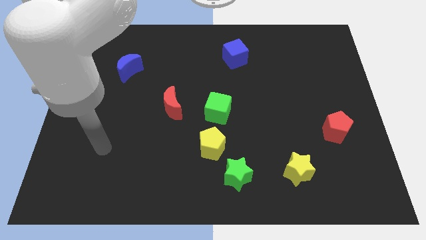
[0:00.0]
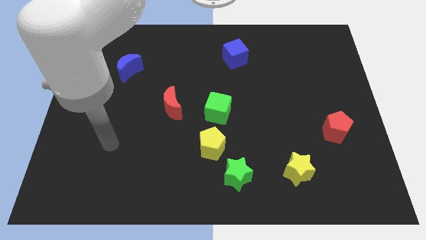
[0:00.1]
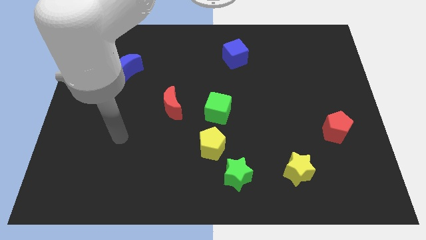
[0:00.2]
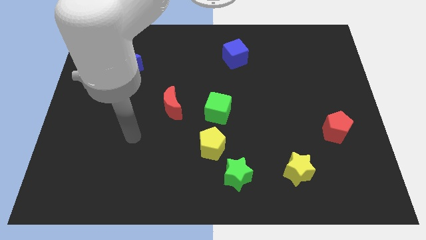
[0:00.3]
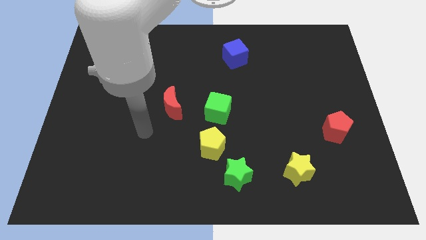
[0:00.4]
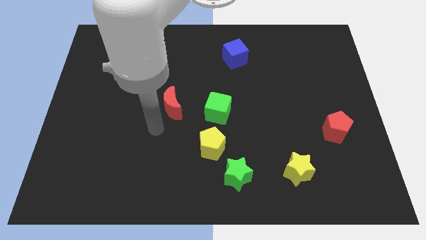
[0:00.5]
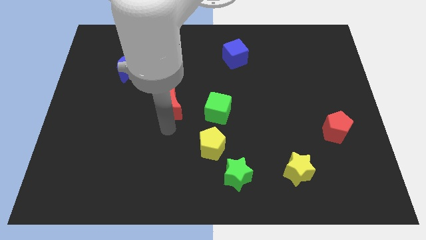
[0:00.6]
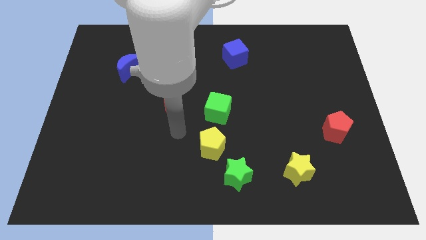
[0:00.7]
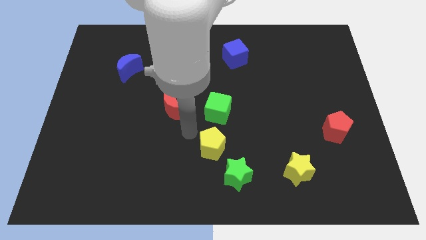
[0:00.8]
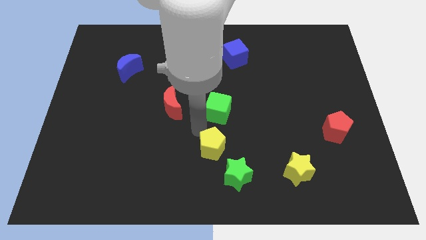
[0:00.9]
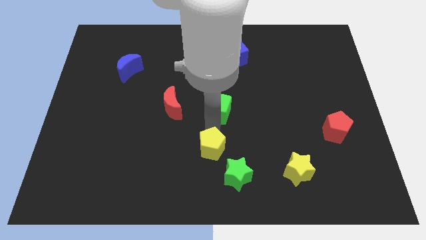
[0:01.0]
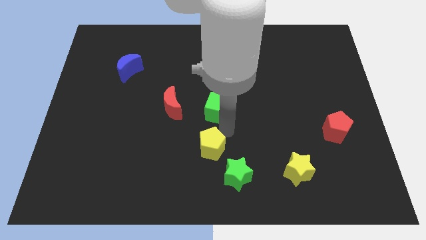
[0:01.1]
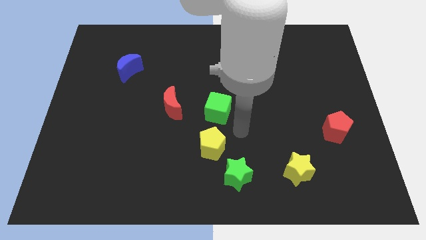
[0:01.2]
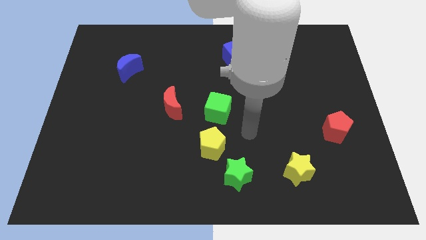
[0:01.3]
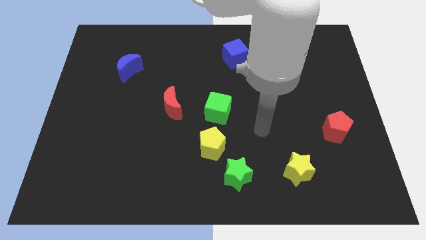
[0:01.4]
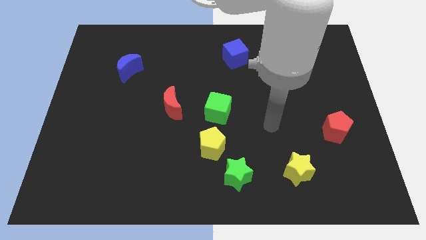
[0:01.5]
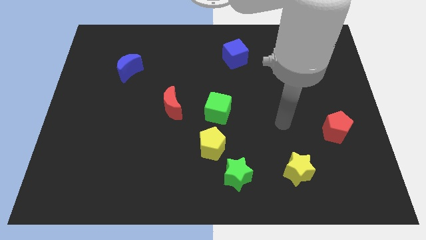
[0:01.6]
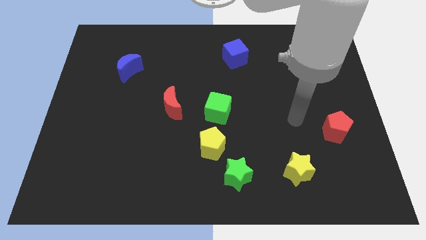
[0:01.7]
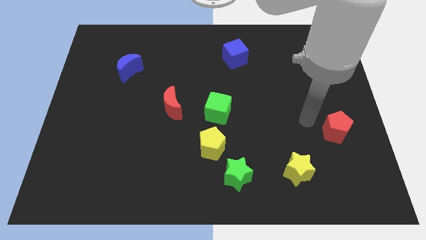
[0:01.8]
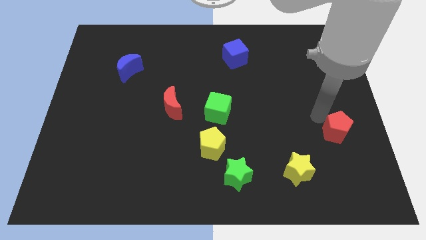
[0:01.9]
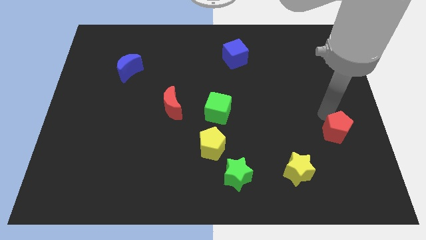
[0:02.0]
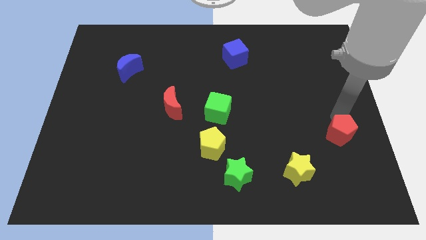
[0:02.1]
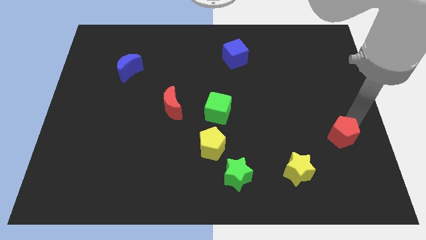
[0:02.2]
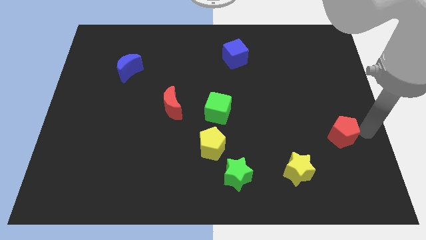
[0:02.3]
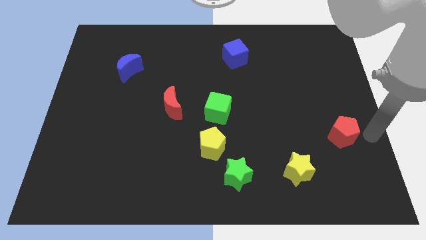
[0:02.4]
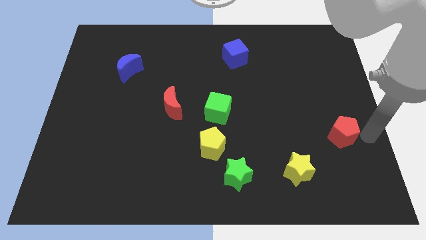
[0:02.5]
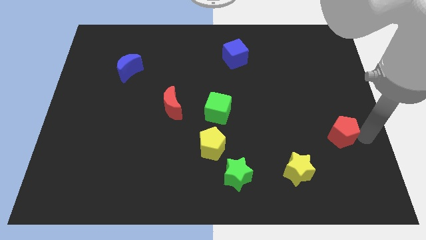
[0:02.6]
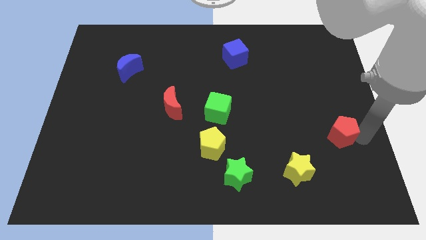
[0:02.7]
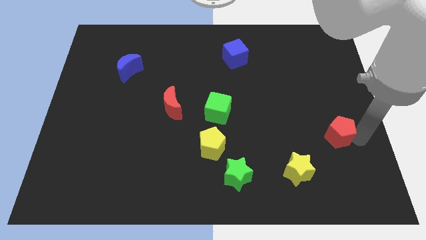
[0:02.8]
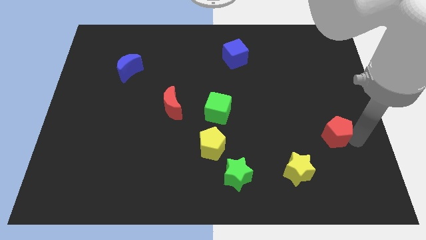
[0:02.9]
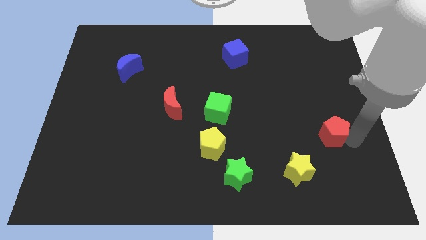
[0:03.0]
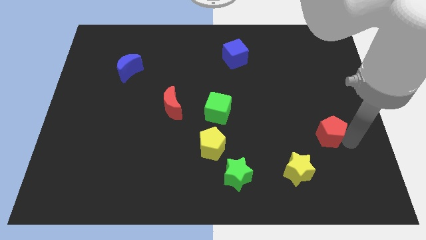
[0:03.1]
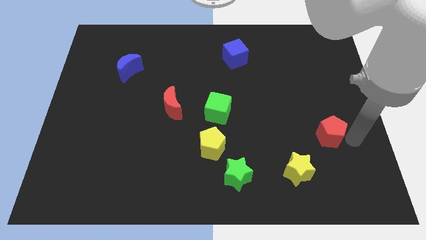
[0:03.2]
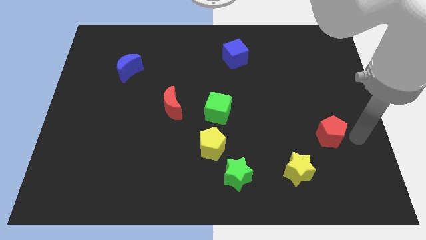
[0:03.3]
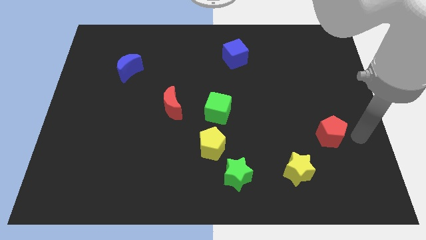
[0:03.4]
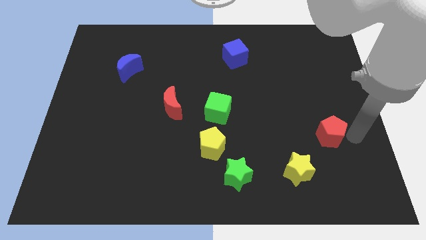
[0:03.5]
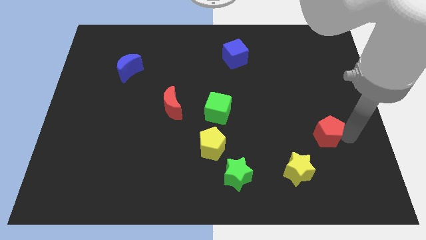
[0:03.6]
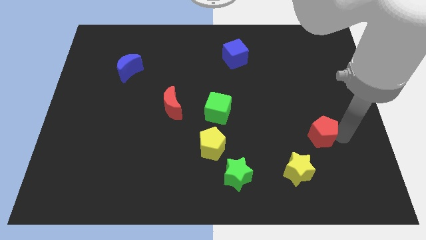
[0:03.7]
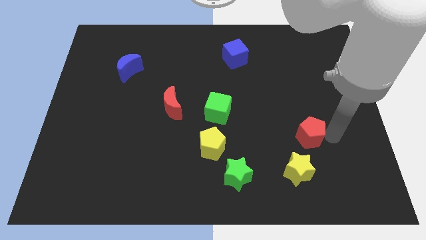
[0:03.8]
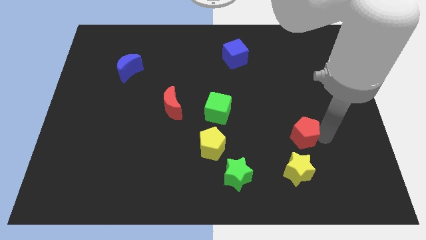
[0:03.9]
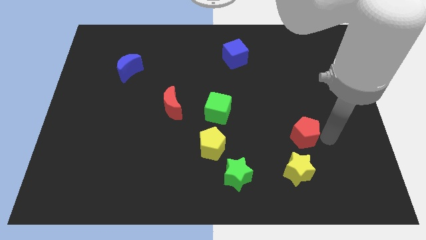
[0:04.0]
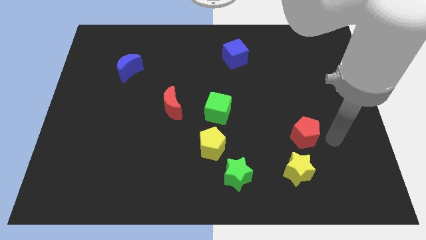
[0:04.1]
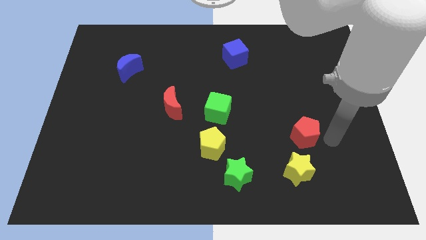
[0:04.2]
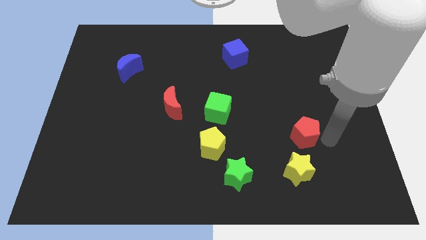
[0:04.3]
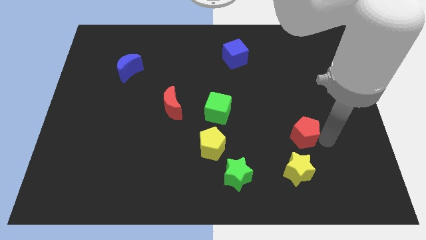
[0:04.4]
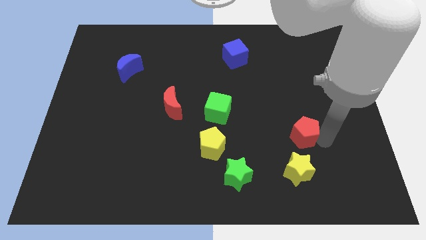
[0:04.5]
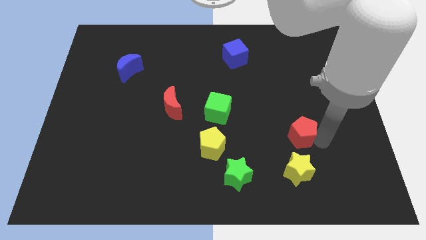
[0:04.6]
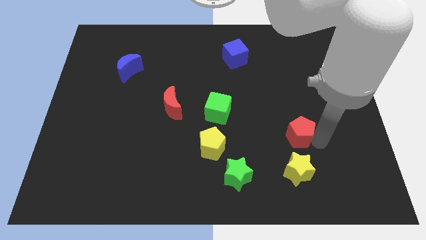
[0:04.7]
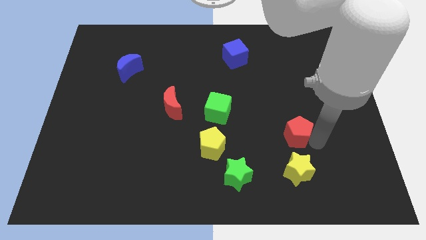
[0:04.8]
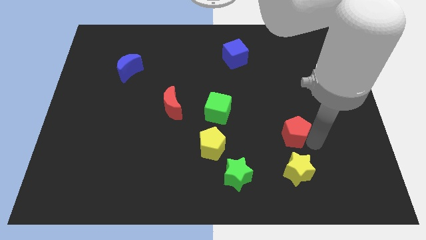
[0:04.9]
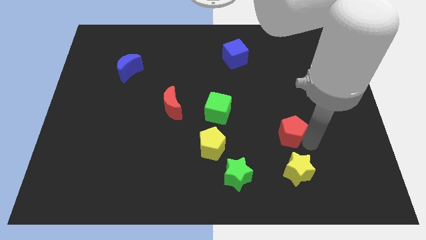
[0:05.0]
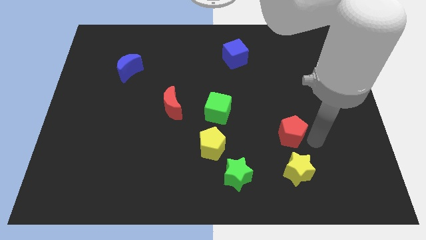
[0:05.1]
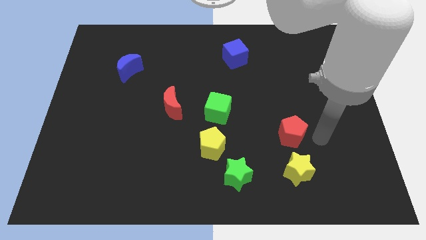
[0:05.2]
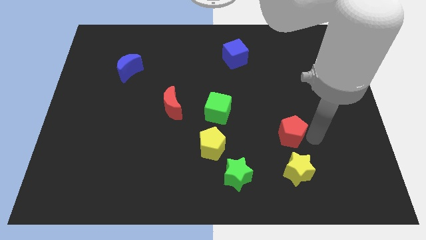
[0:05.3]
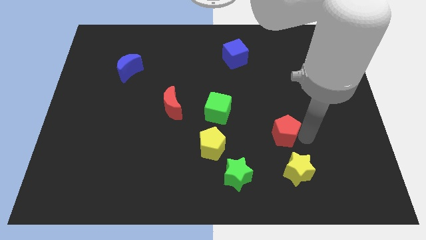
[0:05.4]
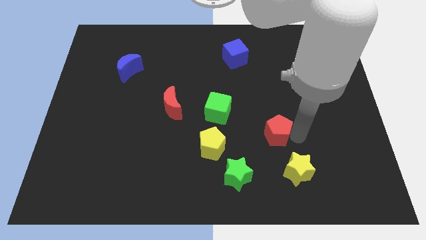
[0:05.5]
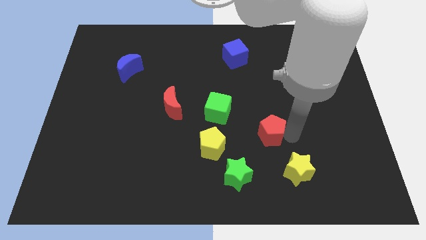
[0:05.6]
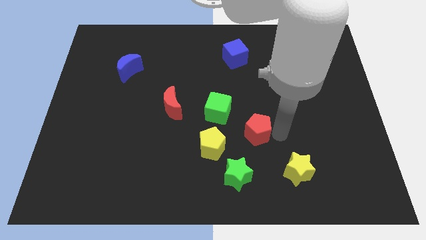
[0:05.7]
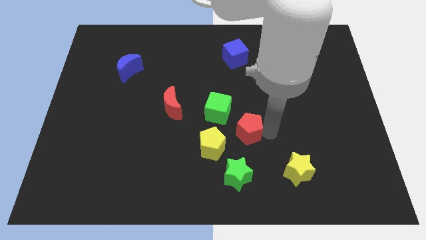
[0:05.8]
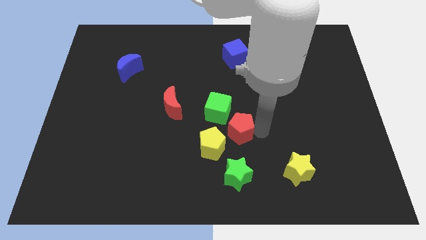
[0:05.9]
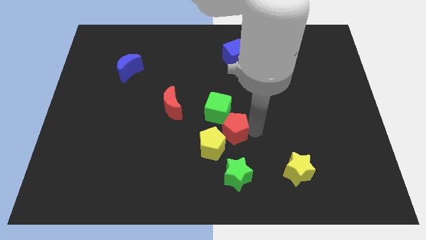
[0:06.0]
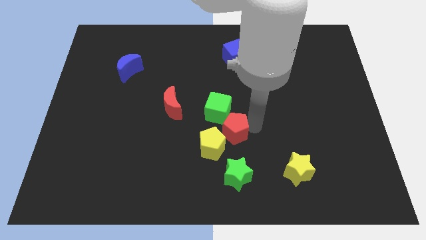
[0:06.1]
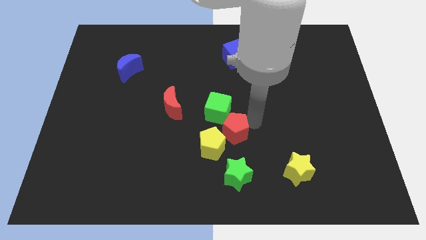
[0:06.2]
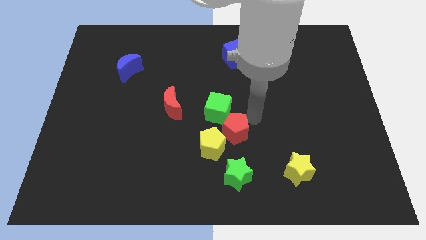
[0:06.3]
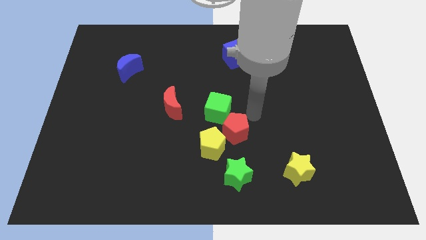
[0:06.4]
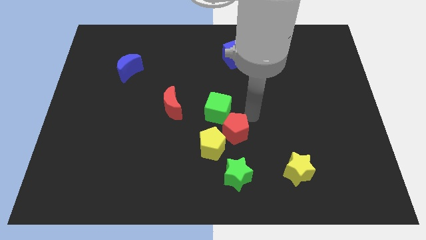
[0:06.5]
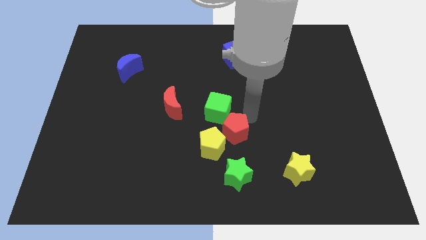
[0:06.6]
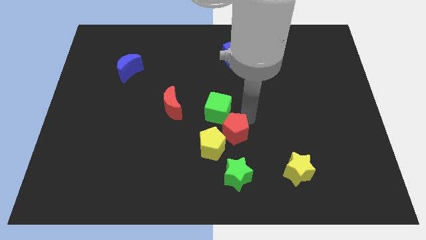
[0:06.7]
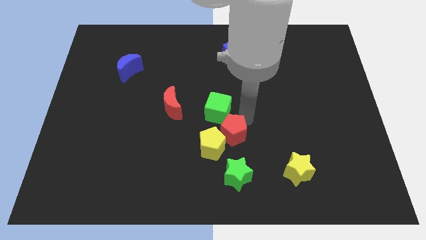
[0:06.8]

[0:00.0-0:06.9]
push the red pentagon towards the yellow pentagon

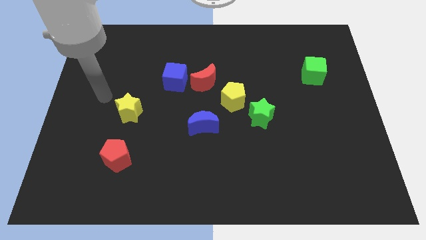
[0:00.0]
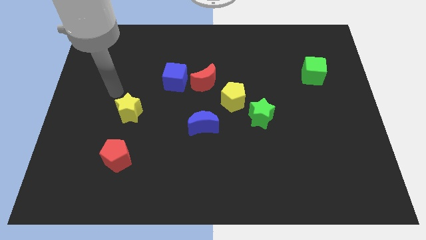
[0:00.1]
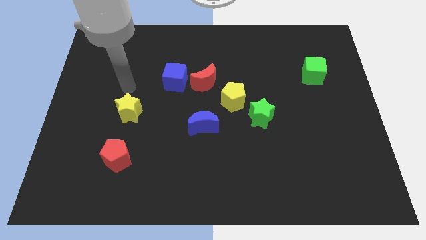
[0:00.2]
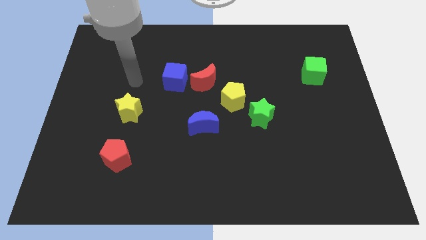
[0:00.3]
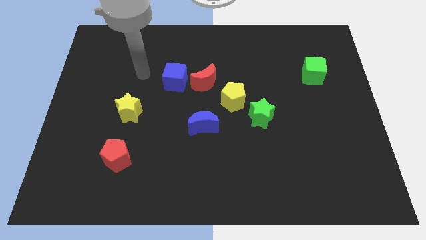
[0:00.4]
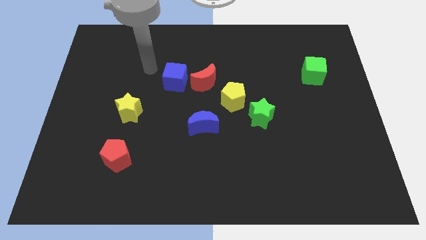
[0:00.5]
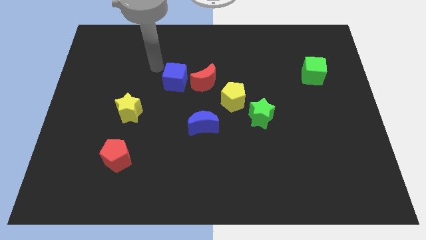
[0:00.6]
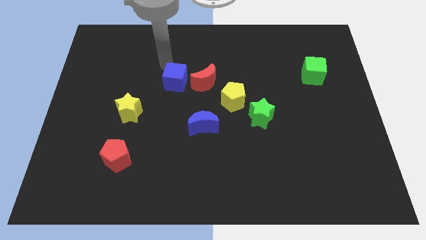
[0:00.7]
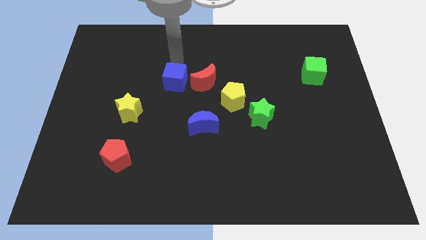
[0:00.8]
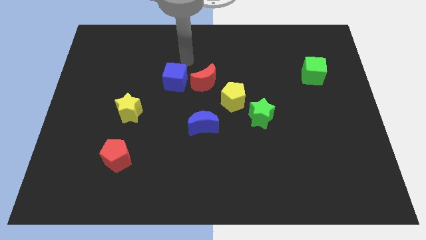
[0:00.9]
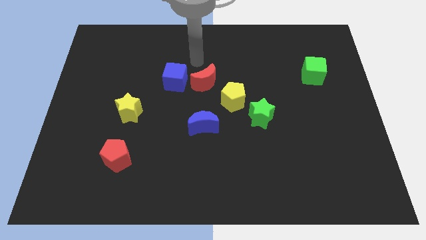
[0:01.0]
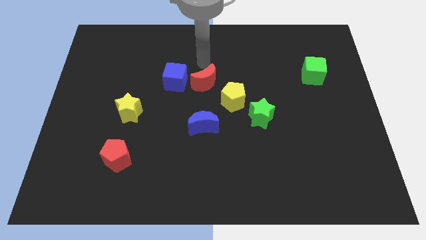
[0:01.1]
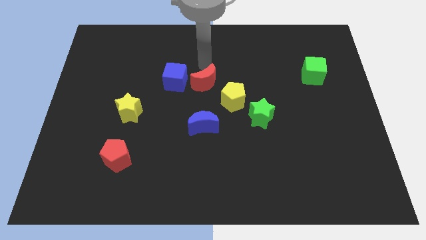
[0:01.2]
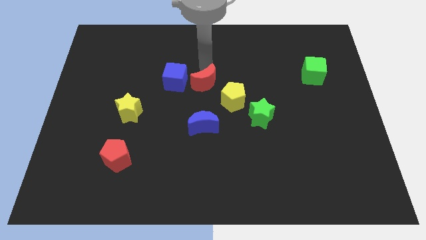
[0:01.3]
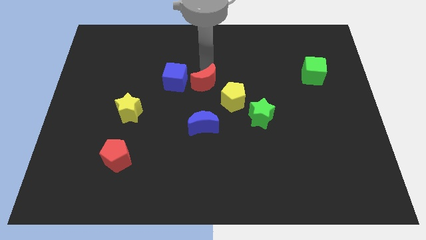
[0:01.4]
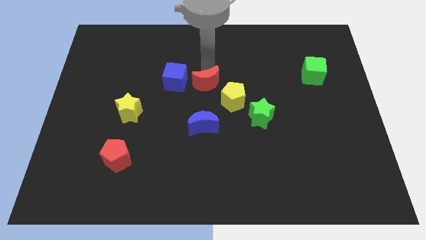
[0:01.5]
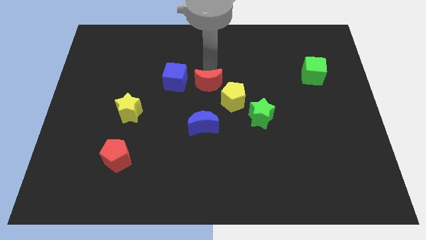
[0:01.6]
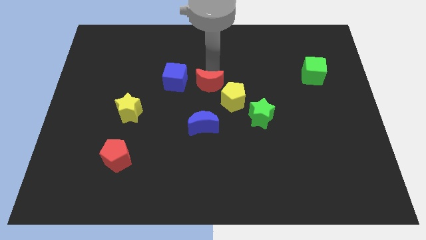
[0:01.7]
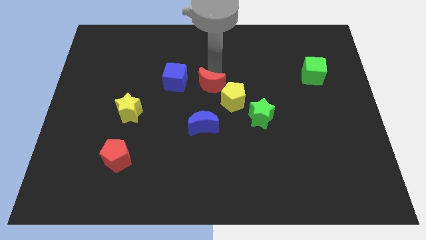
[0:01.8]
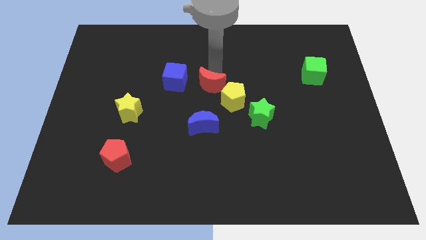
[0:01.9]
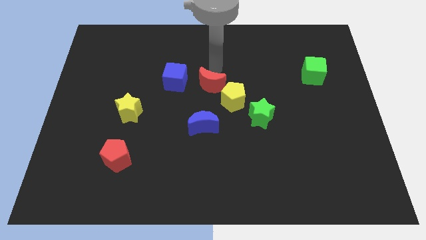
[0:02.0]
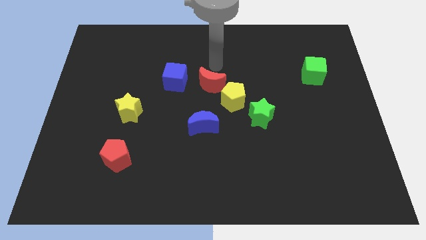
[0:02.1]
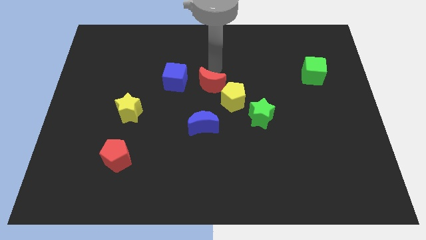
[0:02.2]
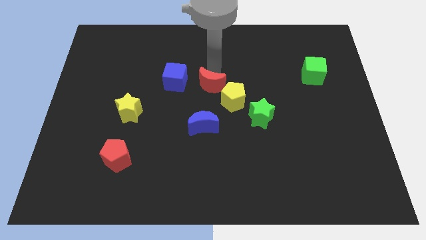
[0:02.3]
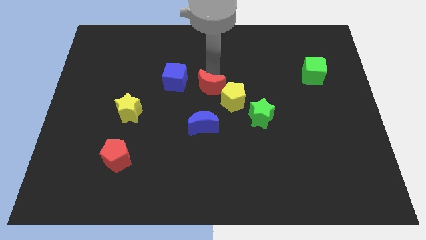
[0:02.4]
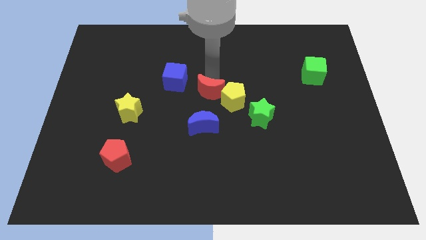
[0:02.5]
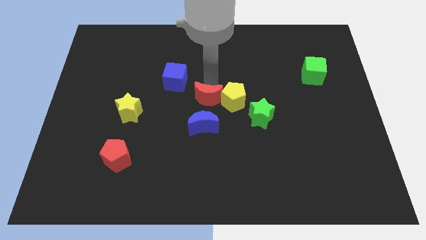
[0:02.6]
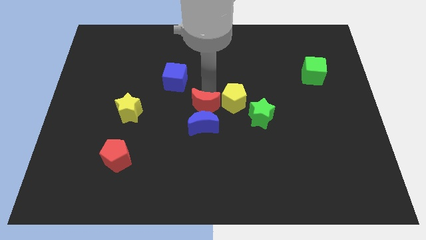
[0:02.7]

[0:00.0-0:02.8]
move the red moon next to the blue moon
